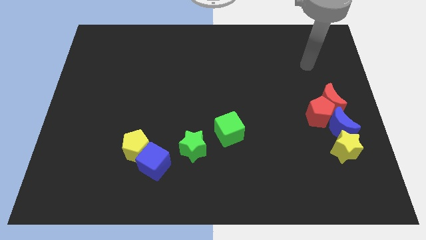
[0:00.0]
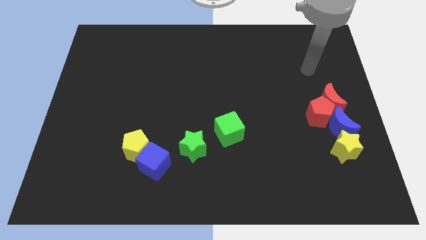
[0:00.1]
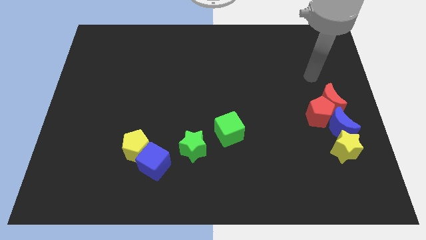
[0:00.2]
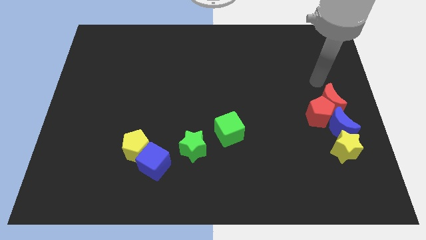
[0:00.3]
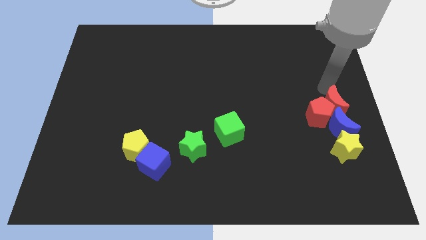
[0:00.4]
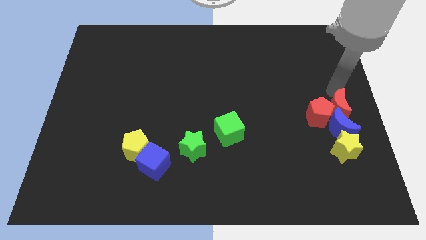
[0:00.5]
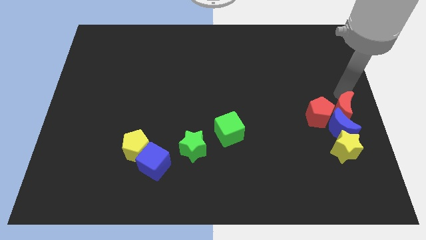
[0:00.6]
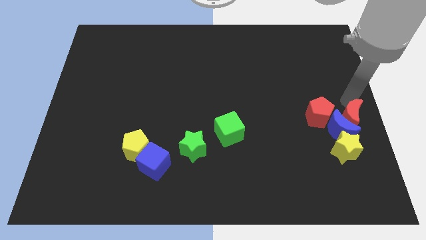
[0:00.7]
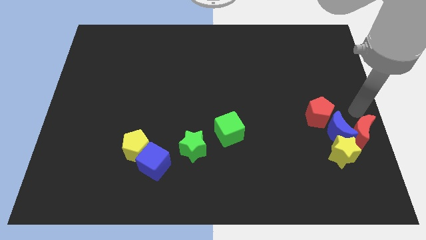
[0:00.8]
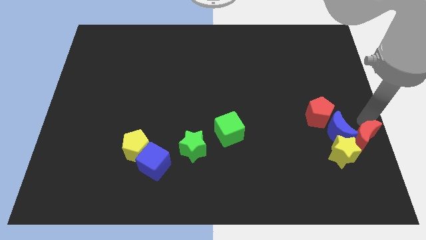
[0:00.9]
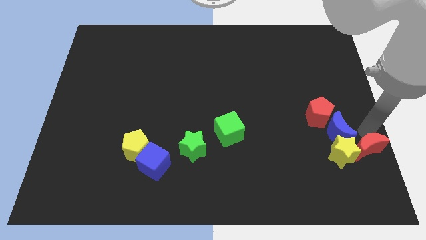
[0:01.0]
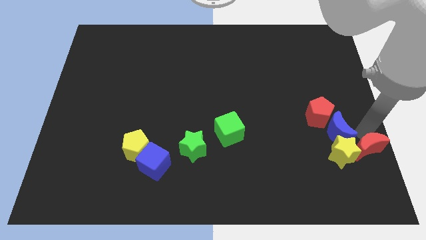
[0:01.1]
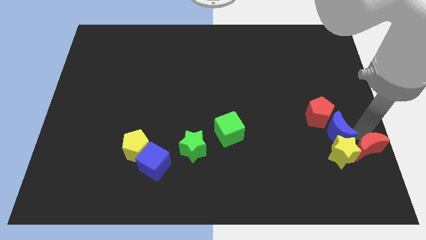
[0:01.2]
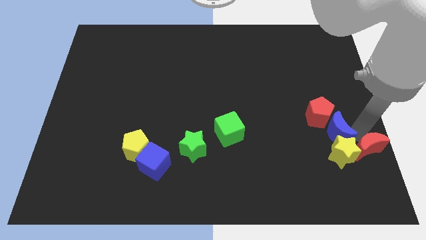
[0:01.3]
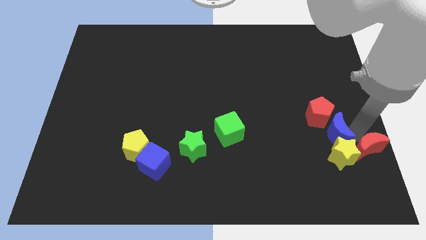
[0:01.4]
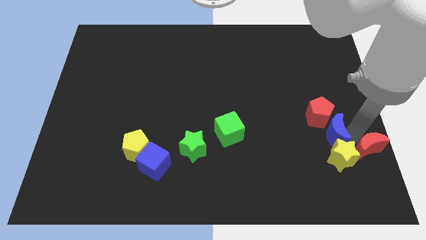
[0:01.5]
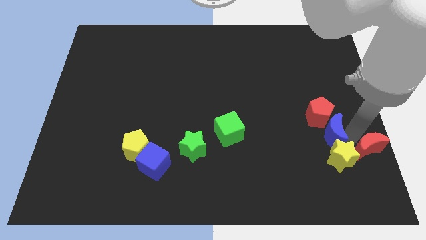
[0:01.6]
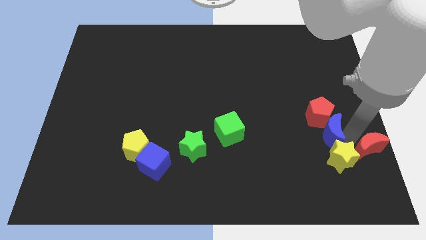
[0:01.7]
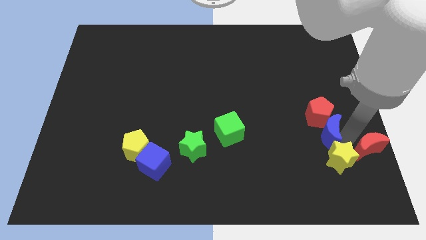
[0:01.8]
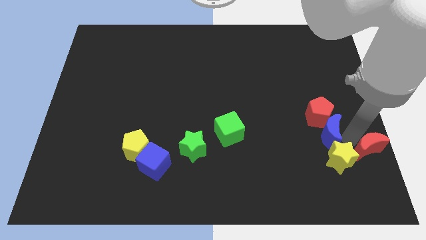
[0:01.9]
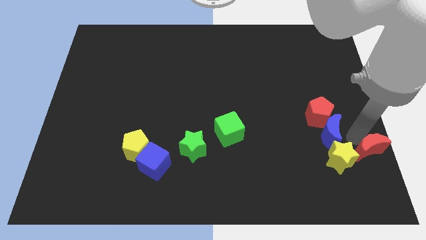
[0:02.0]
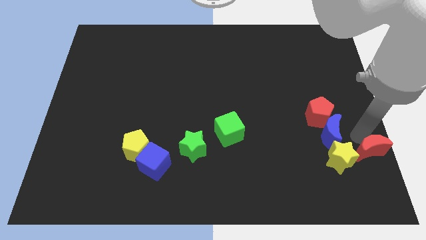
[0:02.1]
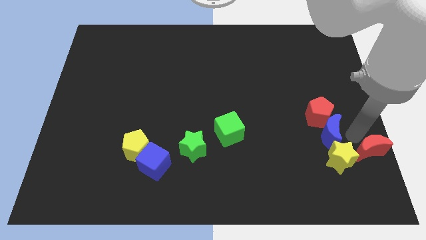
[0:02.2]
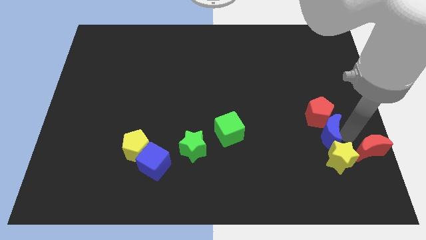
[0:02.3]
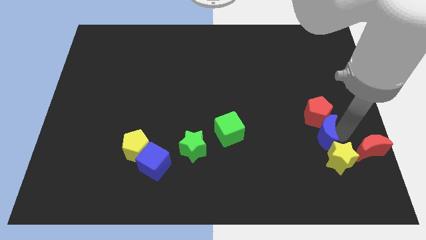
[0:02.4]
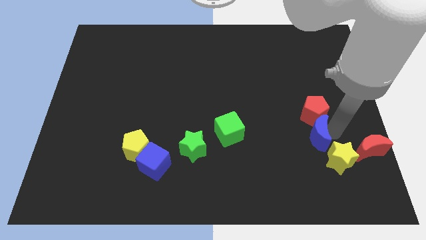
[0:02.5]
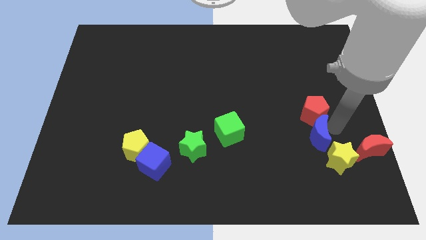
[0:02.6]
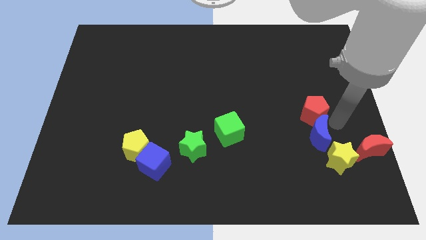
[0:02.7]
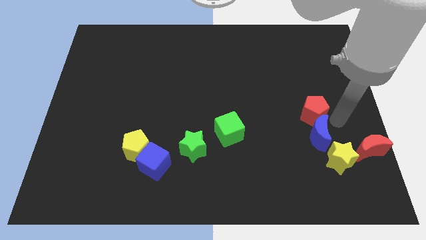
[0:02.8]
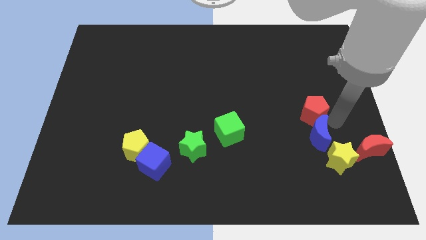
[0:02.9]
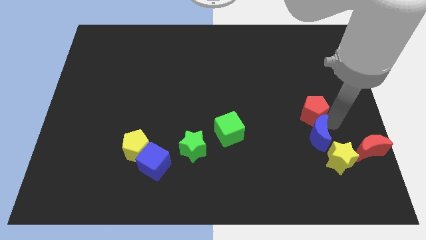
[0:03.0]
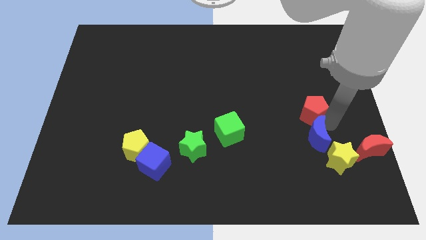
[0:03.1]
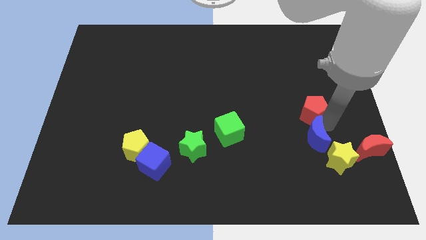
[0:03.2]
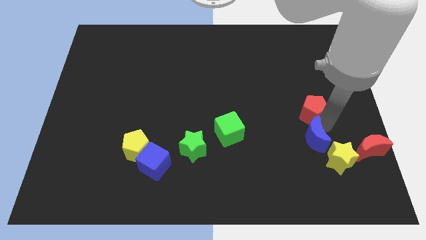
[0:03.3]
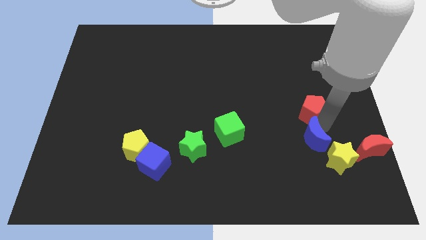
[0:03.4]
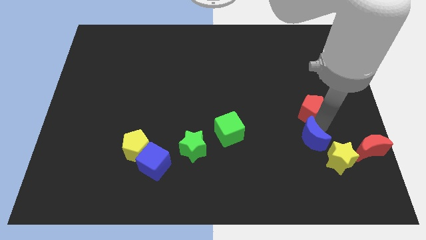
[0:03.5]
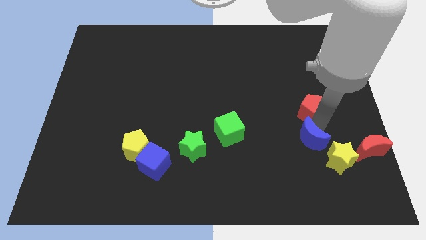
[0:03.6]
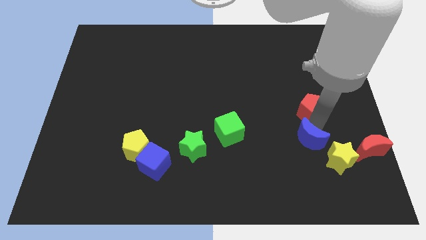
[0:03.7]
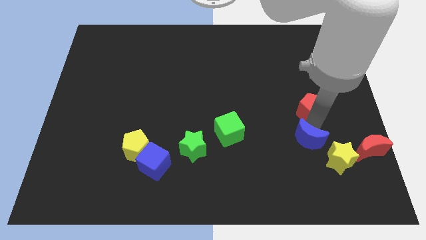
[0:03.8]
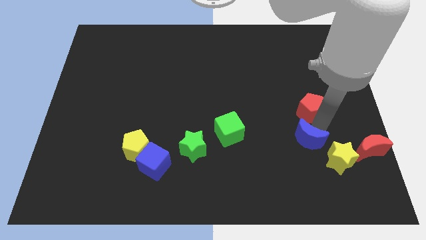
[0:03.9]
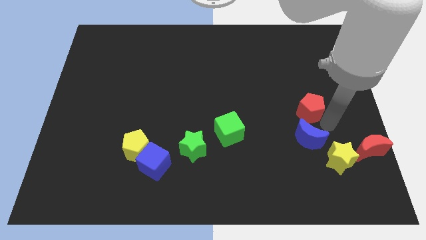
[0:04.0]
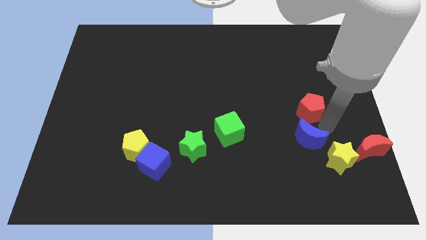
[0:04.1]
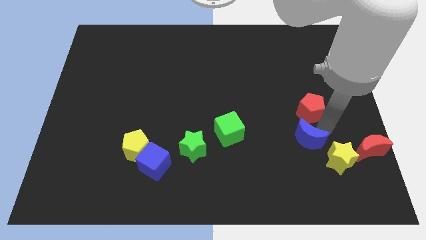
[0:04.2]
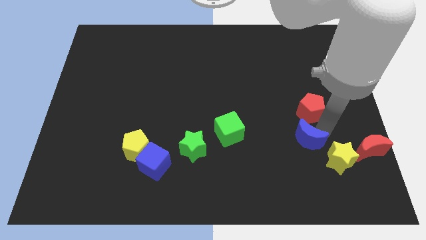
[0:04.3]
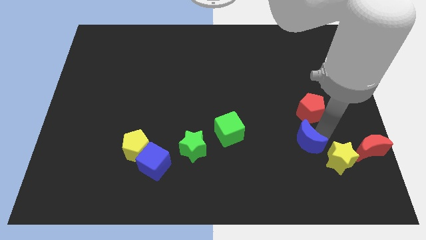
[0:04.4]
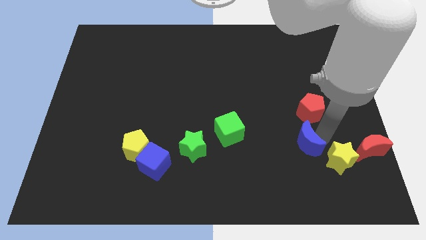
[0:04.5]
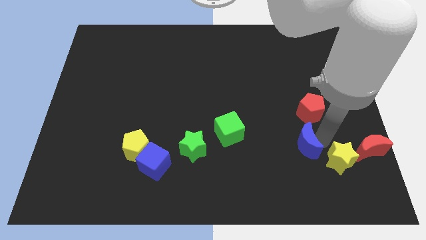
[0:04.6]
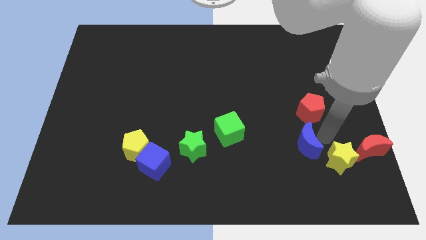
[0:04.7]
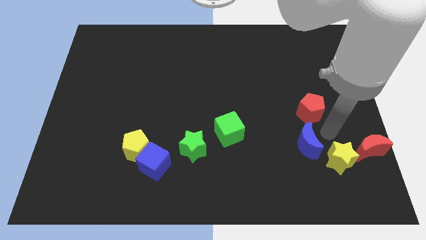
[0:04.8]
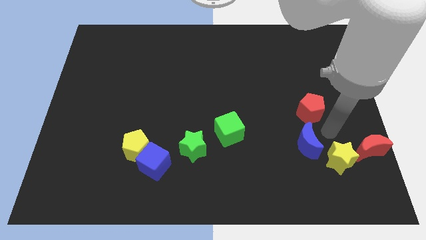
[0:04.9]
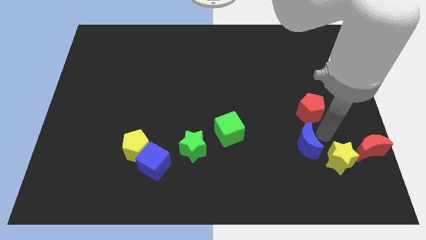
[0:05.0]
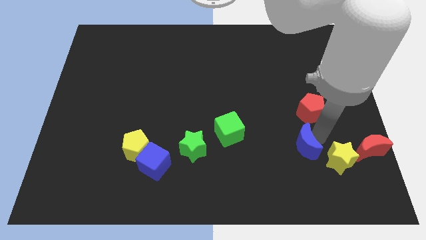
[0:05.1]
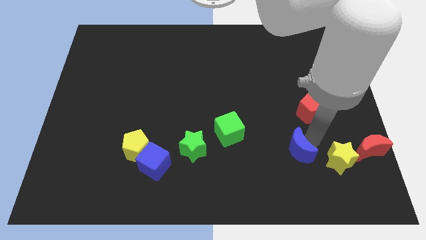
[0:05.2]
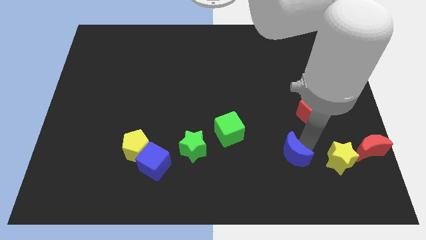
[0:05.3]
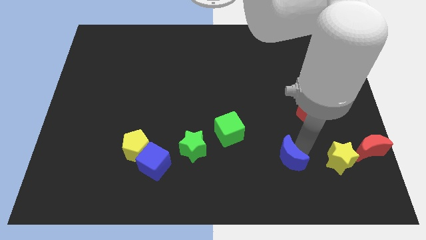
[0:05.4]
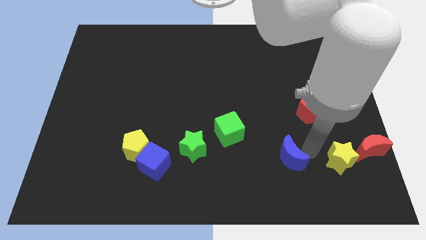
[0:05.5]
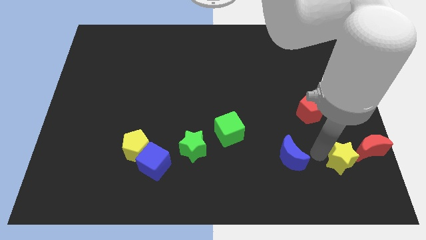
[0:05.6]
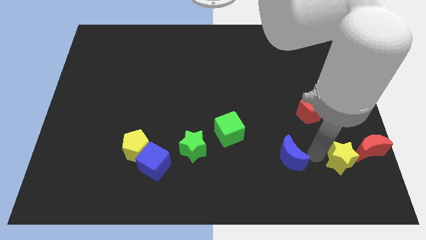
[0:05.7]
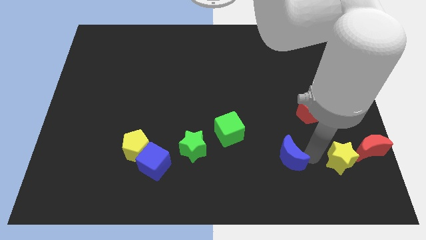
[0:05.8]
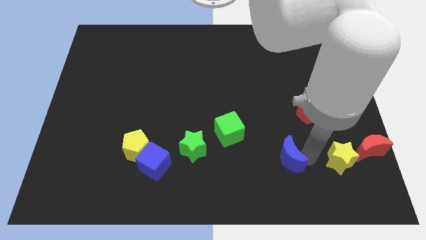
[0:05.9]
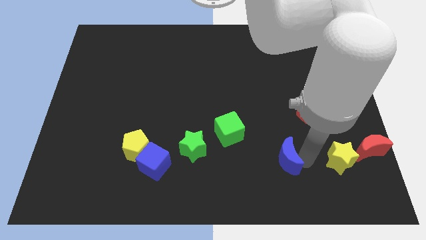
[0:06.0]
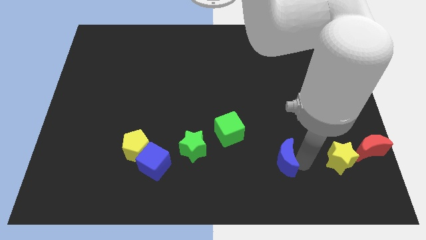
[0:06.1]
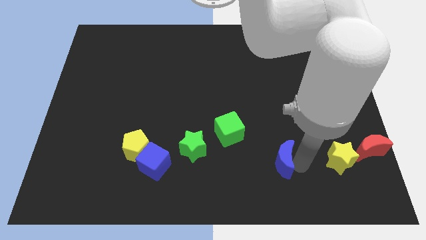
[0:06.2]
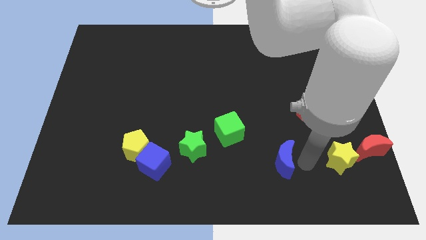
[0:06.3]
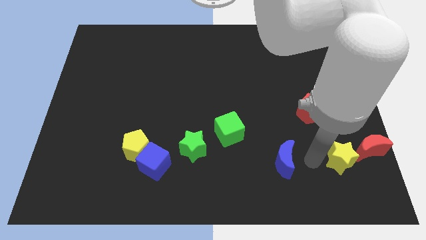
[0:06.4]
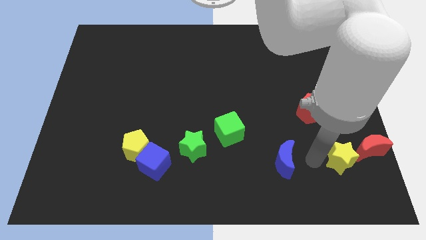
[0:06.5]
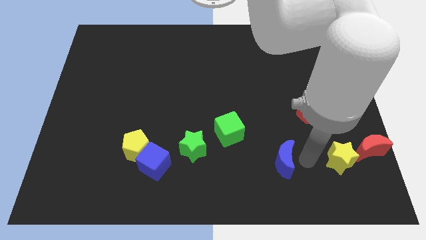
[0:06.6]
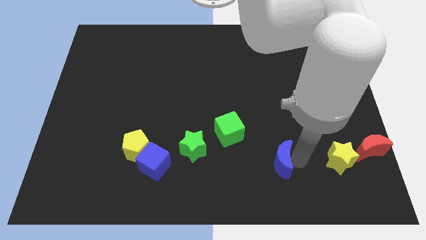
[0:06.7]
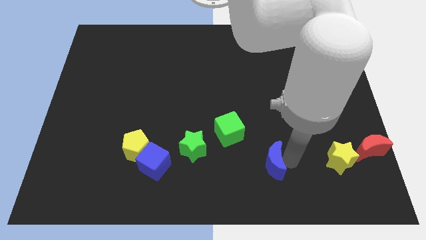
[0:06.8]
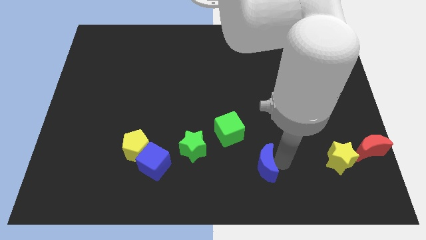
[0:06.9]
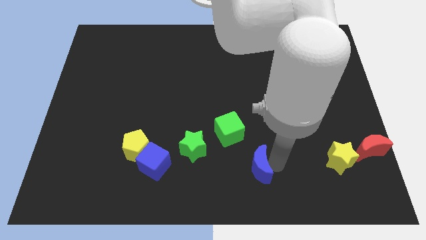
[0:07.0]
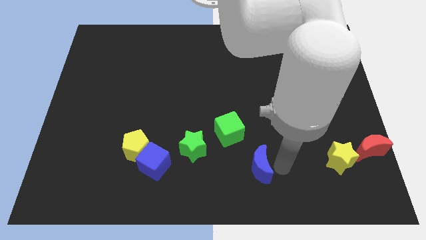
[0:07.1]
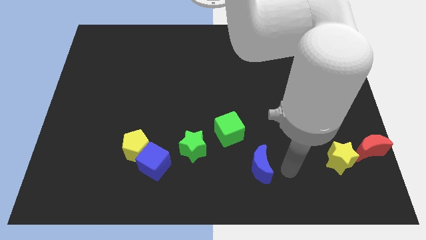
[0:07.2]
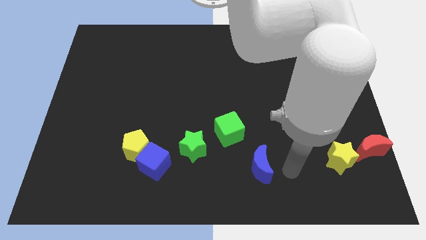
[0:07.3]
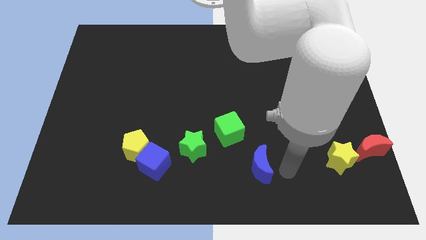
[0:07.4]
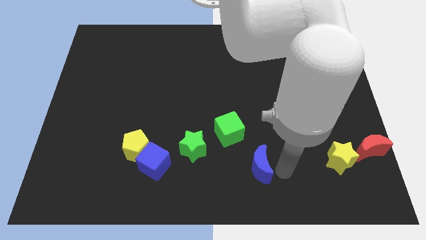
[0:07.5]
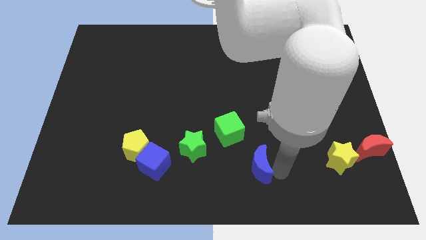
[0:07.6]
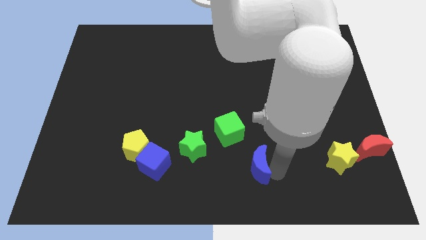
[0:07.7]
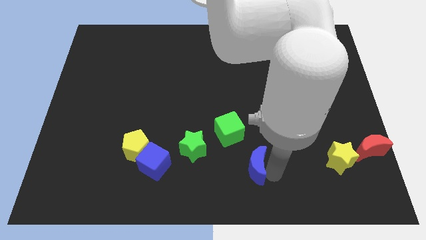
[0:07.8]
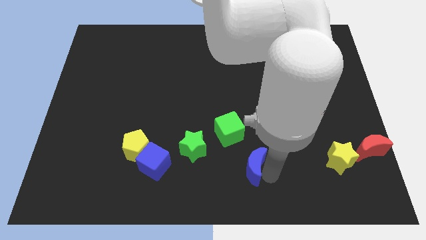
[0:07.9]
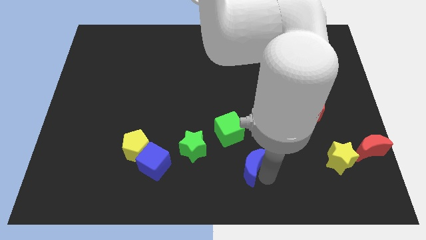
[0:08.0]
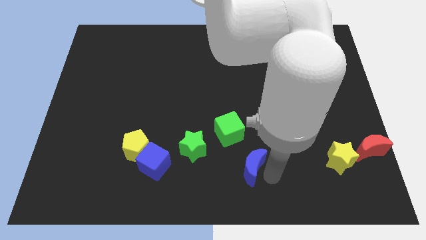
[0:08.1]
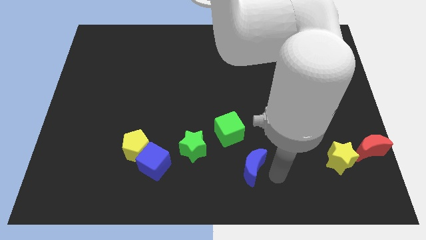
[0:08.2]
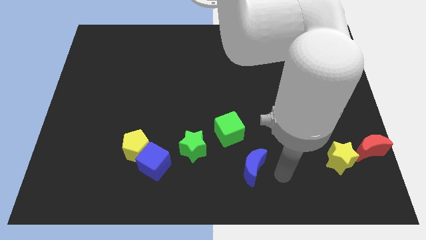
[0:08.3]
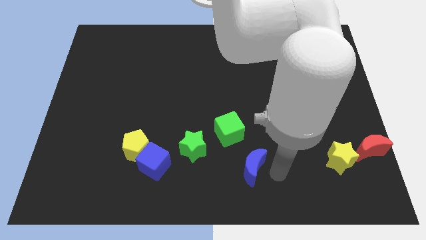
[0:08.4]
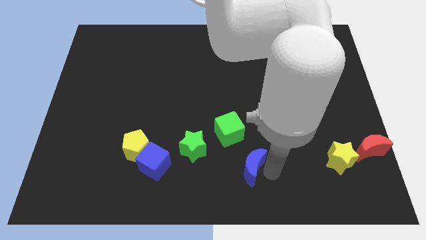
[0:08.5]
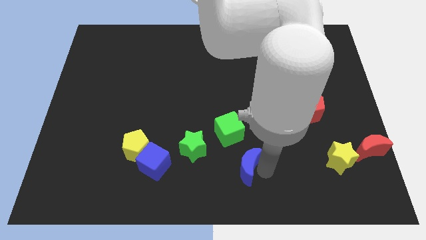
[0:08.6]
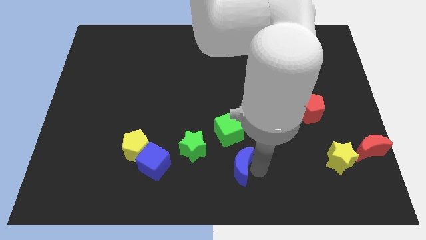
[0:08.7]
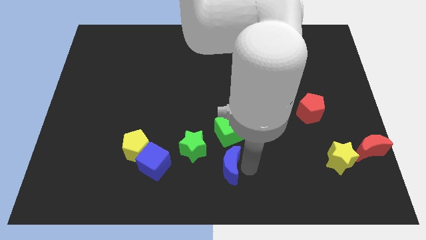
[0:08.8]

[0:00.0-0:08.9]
slide the blue moon to the right of the blue cube
